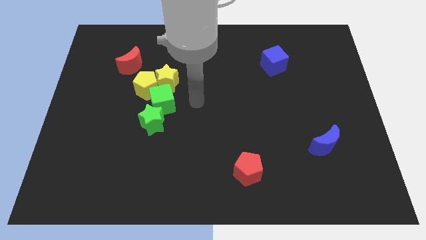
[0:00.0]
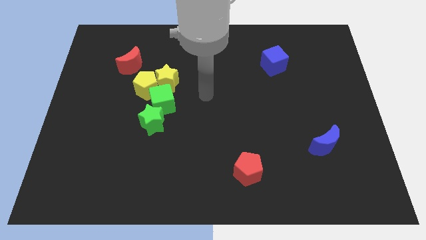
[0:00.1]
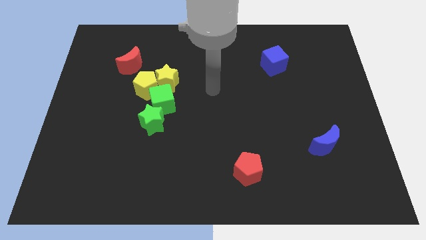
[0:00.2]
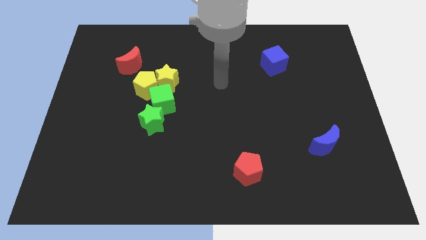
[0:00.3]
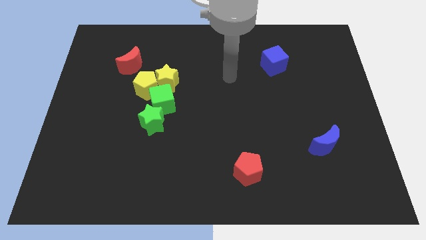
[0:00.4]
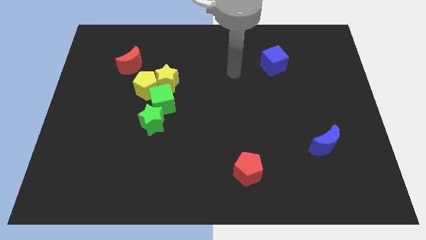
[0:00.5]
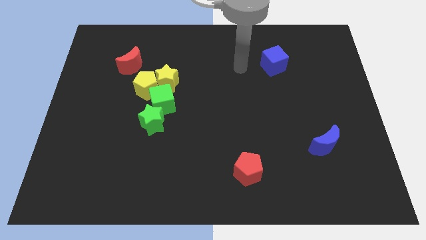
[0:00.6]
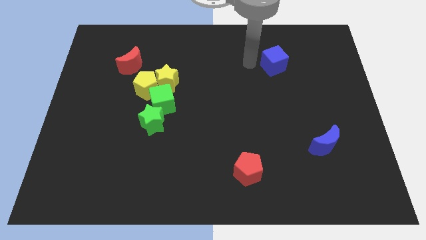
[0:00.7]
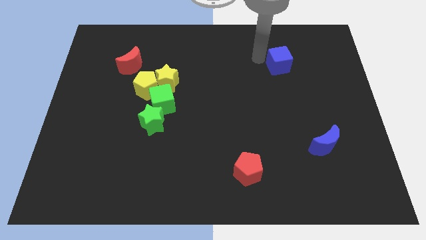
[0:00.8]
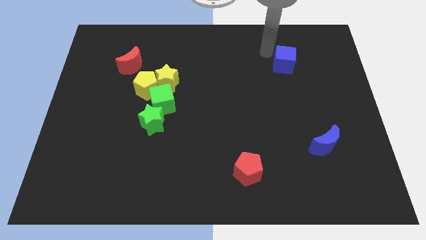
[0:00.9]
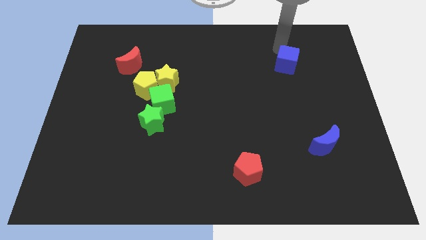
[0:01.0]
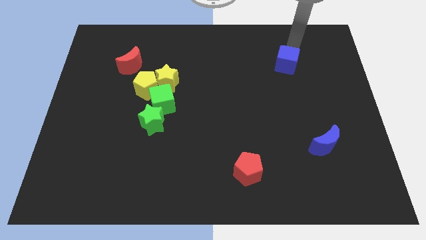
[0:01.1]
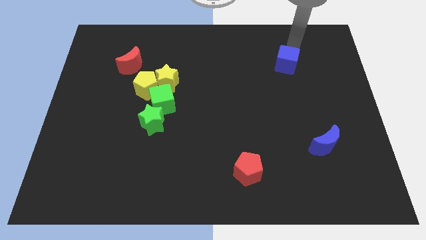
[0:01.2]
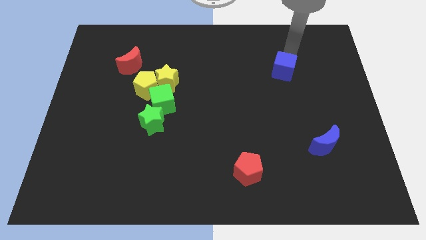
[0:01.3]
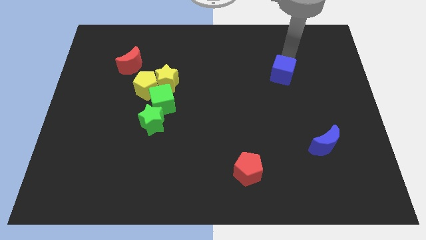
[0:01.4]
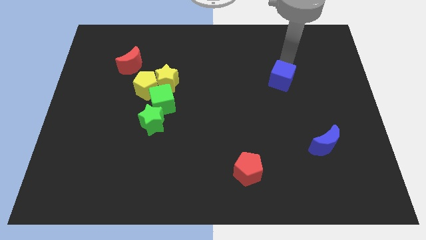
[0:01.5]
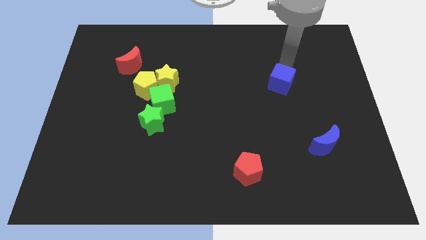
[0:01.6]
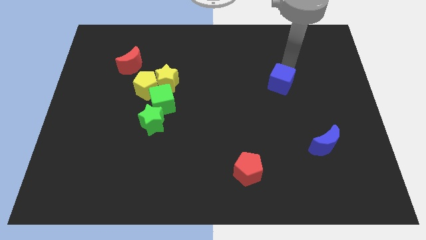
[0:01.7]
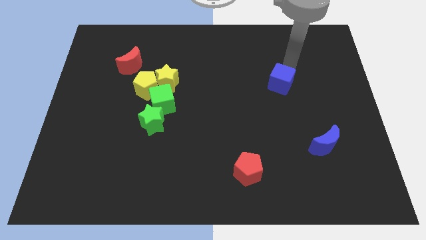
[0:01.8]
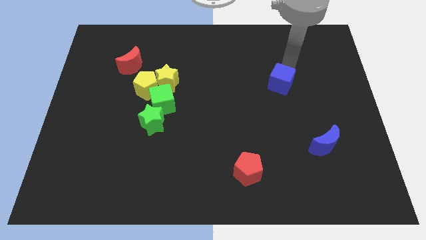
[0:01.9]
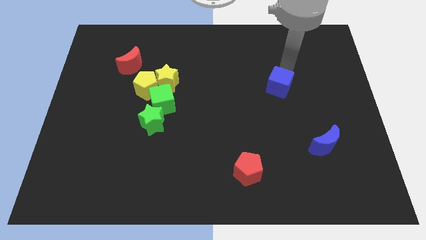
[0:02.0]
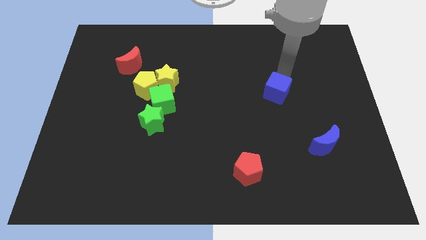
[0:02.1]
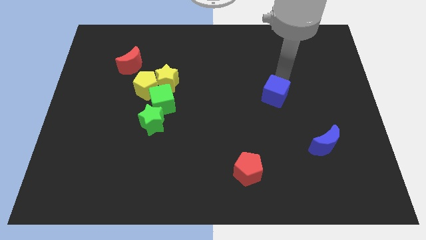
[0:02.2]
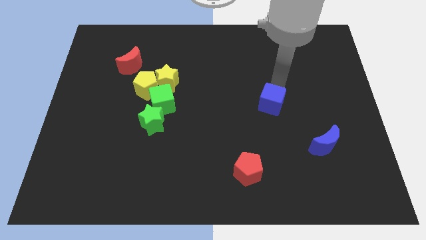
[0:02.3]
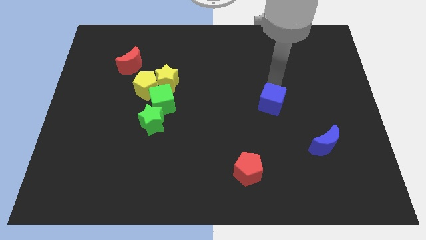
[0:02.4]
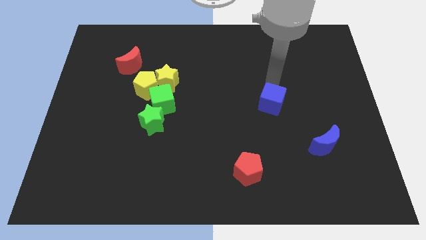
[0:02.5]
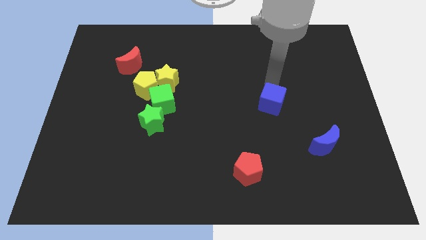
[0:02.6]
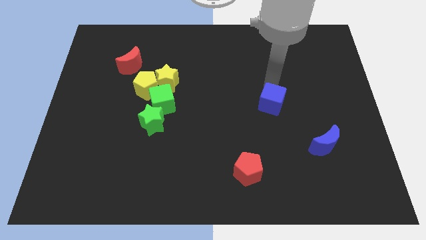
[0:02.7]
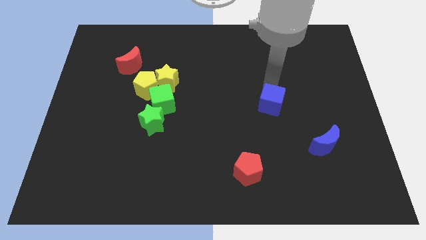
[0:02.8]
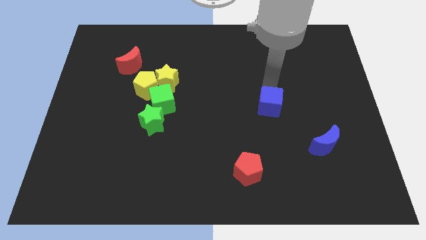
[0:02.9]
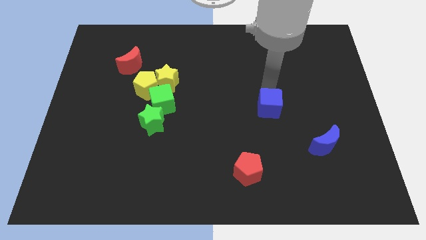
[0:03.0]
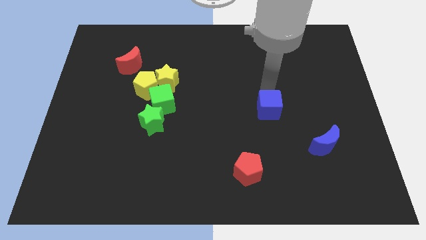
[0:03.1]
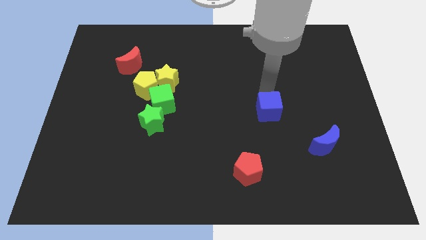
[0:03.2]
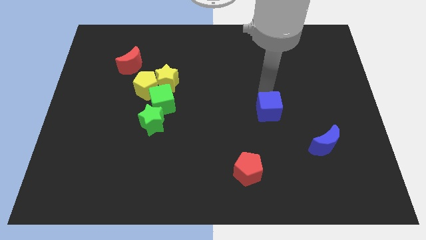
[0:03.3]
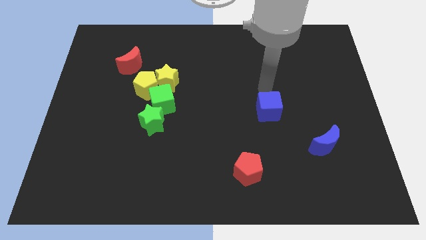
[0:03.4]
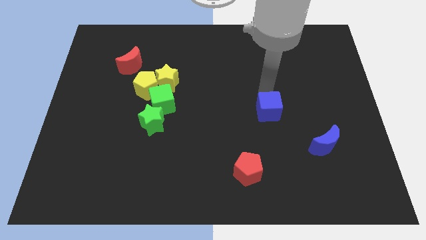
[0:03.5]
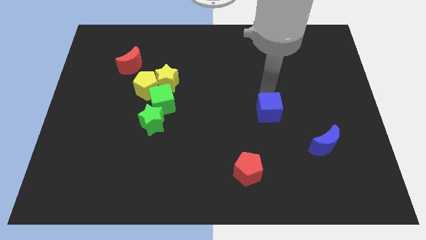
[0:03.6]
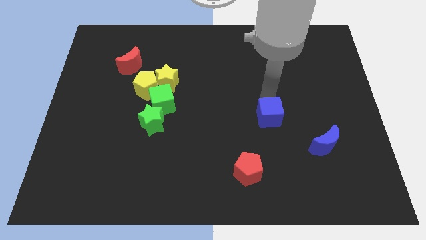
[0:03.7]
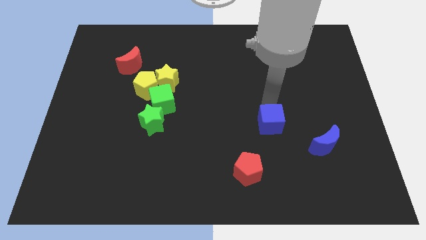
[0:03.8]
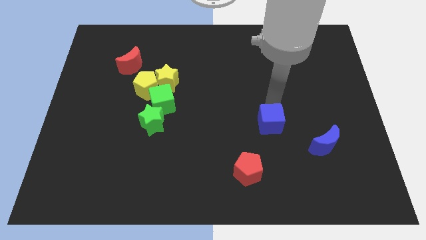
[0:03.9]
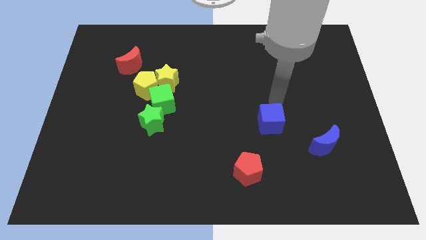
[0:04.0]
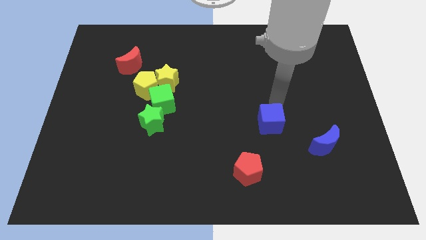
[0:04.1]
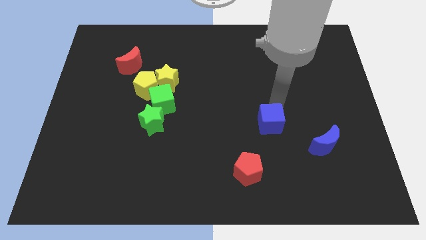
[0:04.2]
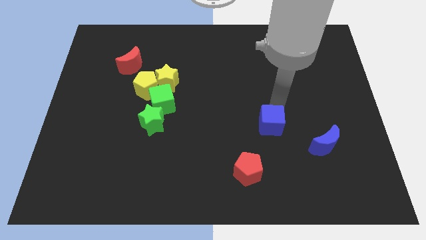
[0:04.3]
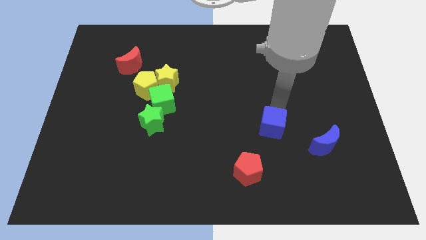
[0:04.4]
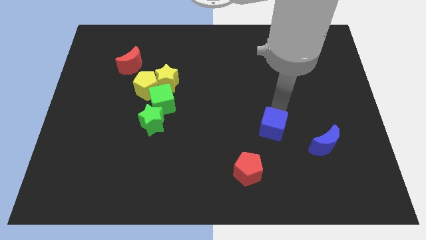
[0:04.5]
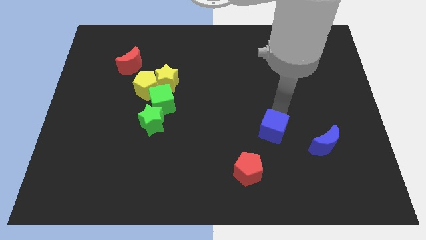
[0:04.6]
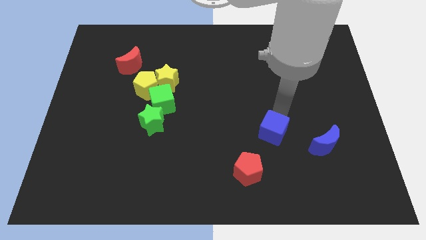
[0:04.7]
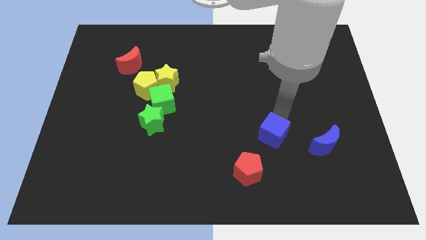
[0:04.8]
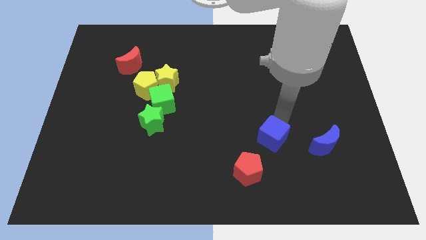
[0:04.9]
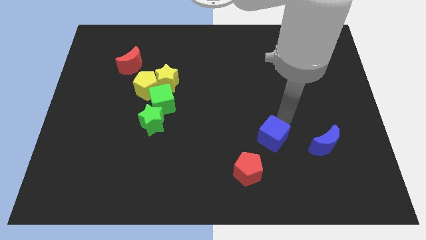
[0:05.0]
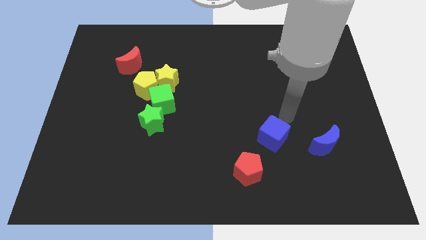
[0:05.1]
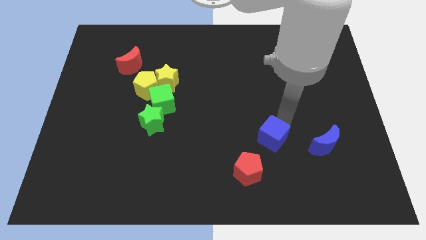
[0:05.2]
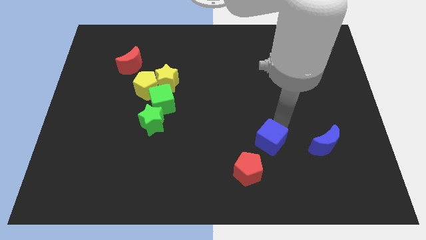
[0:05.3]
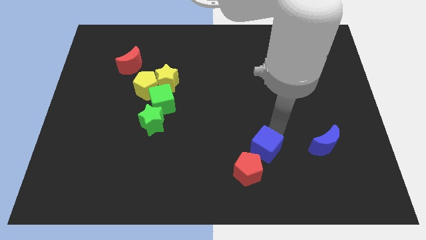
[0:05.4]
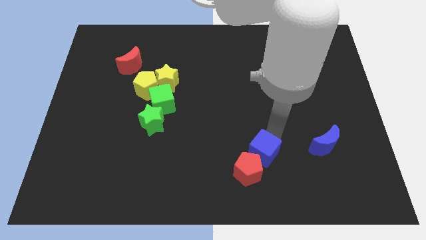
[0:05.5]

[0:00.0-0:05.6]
slide the blue cube next to the red pentagon

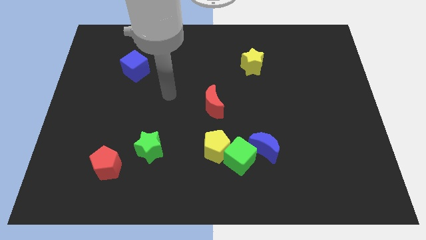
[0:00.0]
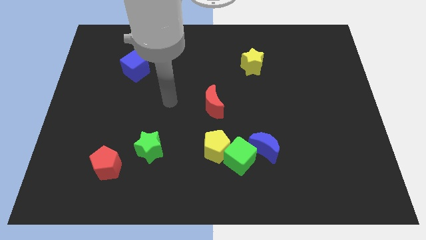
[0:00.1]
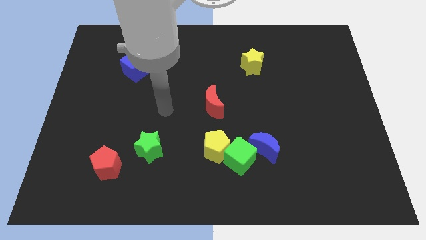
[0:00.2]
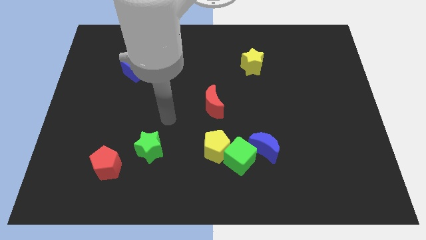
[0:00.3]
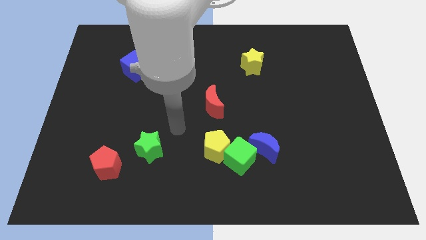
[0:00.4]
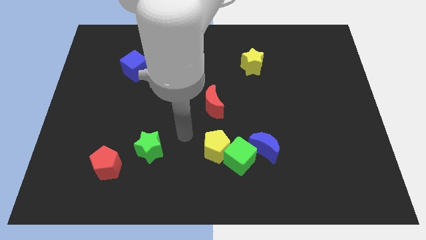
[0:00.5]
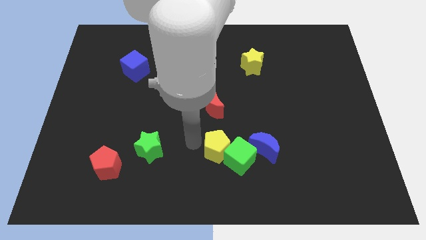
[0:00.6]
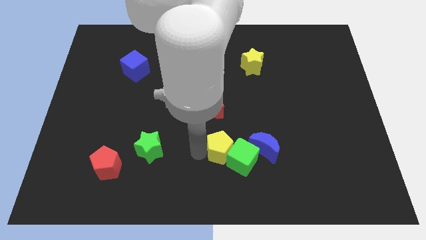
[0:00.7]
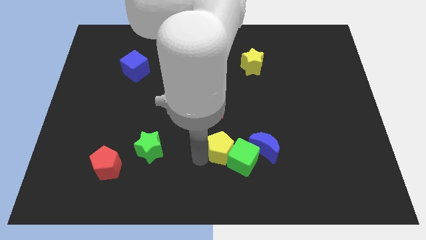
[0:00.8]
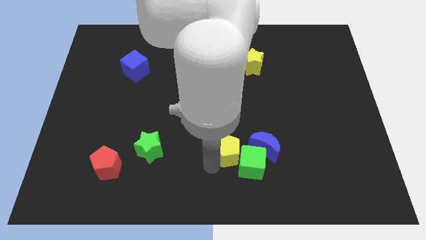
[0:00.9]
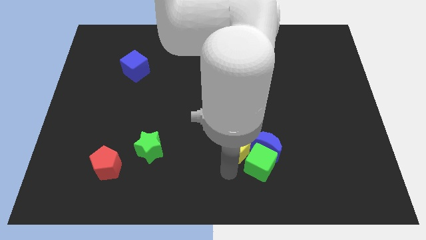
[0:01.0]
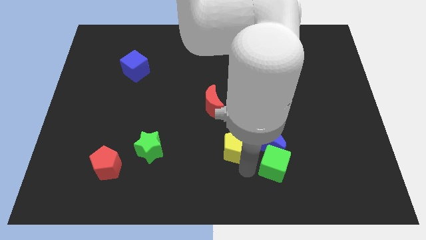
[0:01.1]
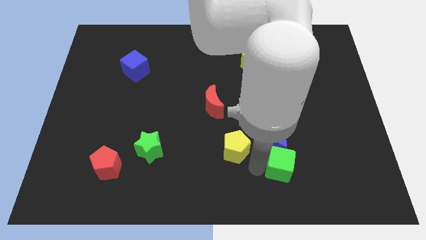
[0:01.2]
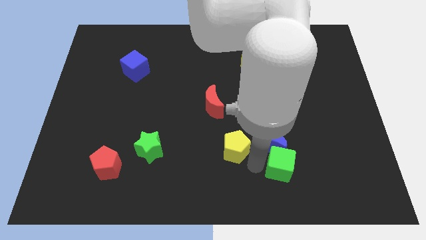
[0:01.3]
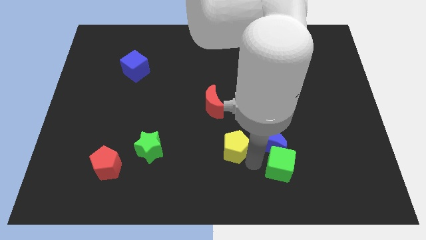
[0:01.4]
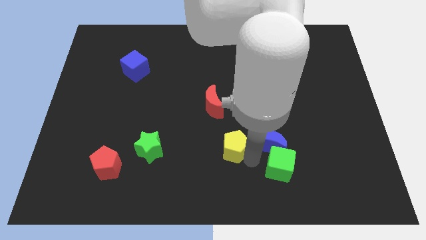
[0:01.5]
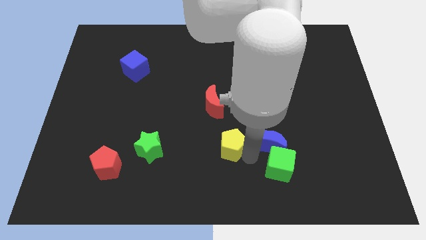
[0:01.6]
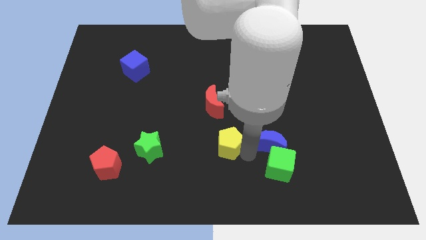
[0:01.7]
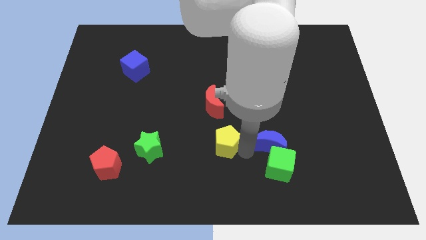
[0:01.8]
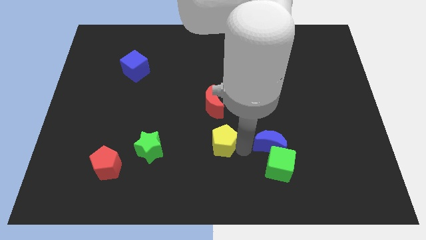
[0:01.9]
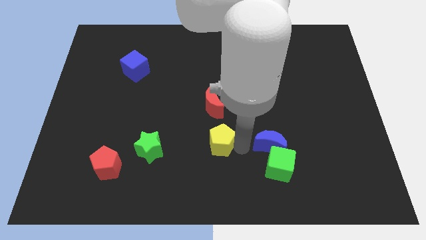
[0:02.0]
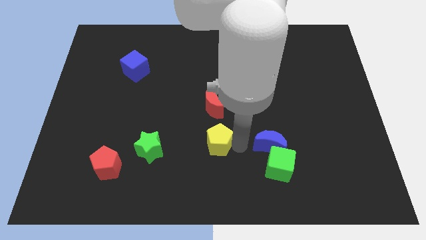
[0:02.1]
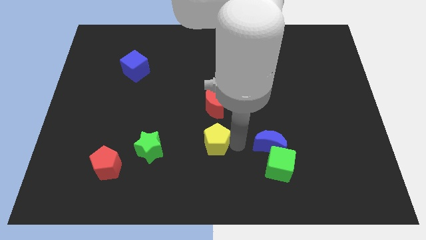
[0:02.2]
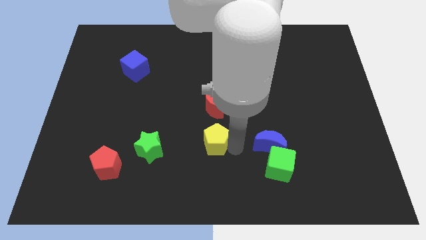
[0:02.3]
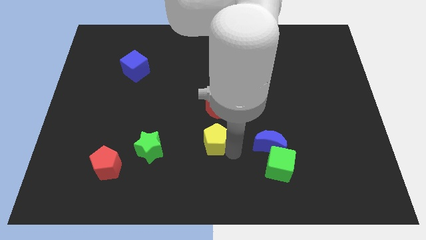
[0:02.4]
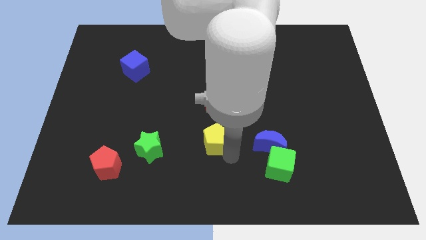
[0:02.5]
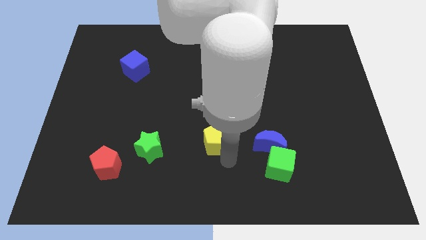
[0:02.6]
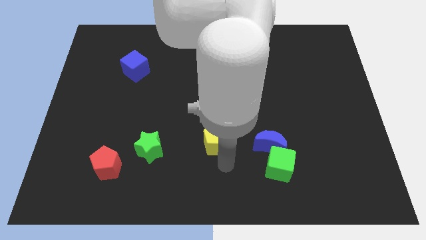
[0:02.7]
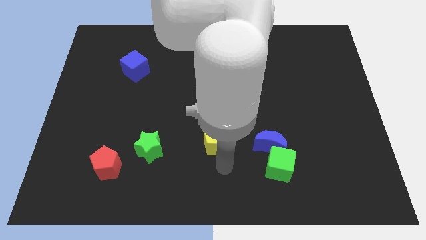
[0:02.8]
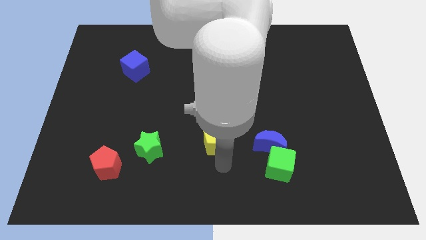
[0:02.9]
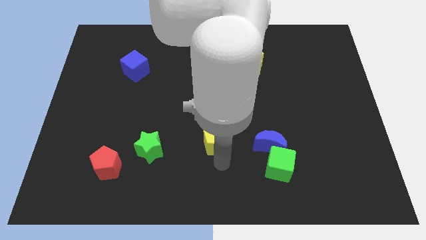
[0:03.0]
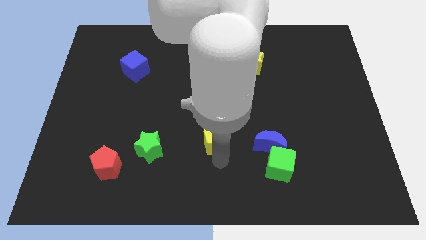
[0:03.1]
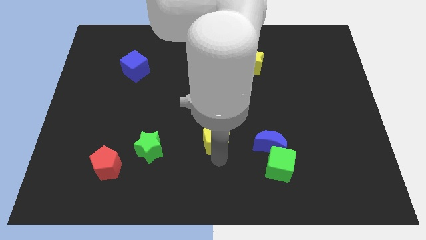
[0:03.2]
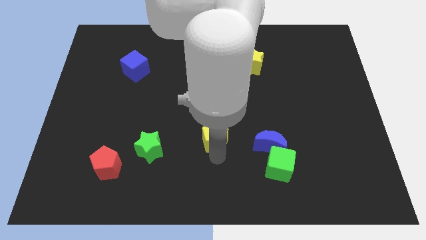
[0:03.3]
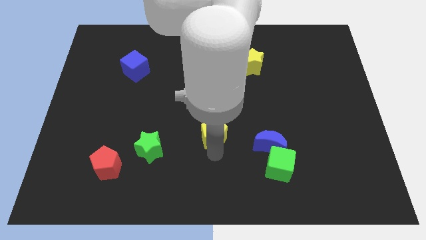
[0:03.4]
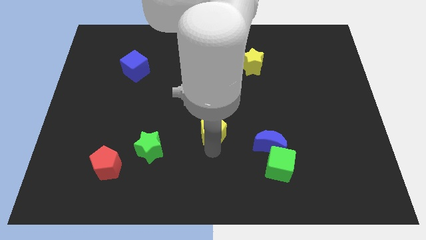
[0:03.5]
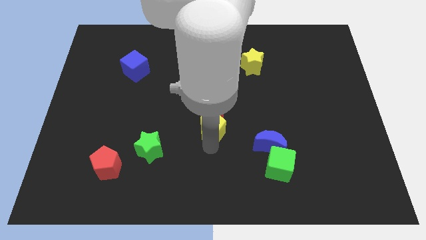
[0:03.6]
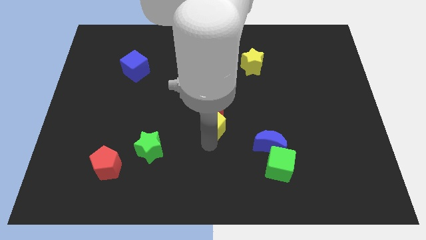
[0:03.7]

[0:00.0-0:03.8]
push the yellow pentagon close to the red moon
